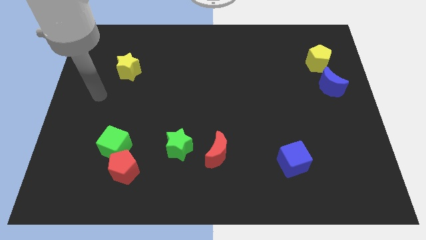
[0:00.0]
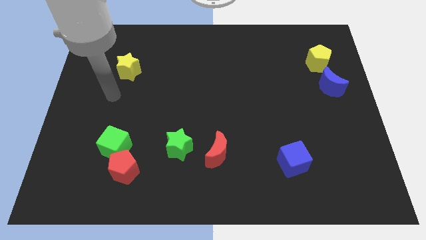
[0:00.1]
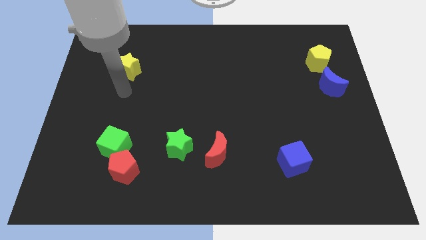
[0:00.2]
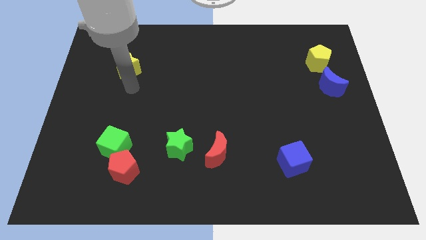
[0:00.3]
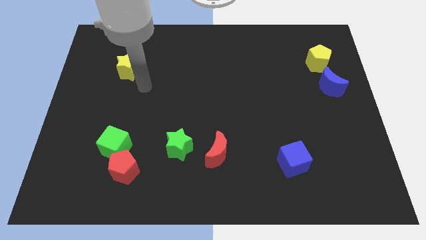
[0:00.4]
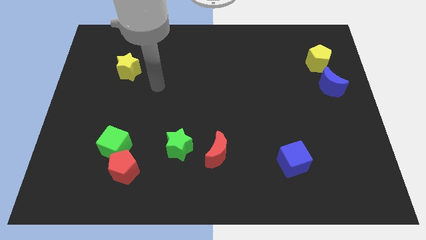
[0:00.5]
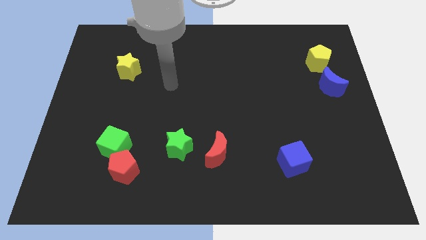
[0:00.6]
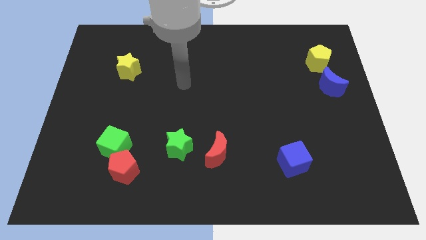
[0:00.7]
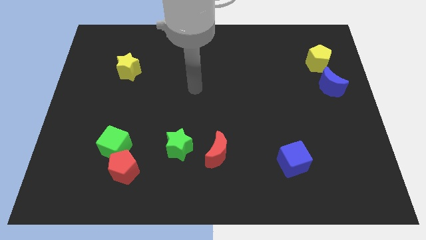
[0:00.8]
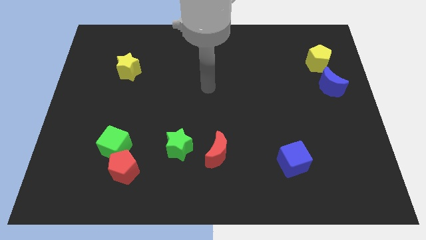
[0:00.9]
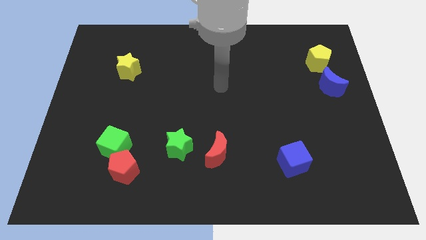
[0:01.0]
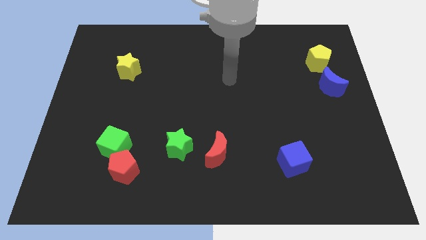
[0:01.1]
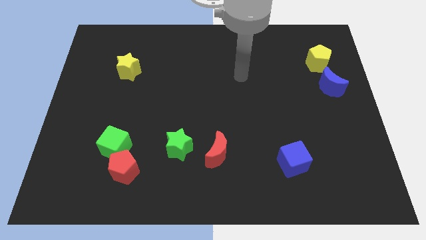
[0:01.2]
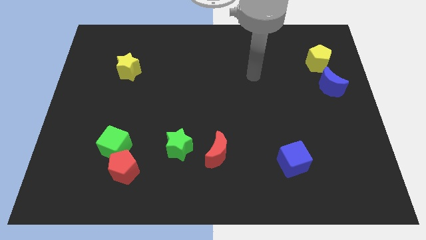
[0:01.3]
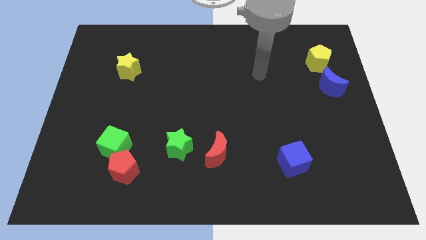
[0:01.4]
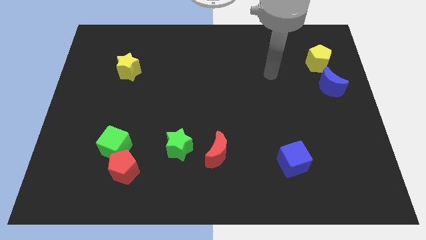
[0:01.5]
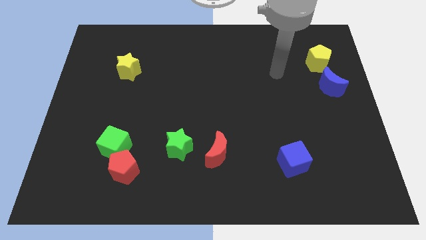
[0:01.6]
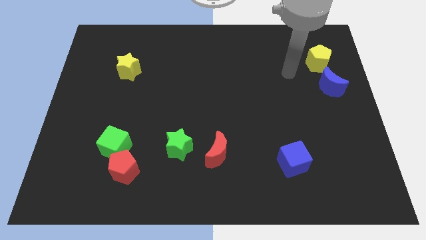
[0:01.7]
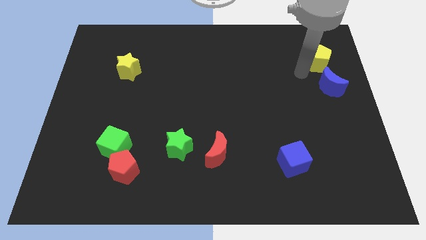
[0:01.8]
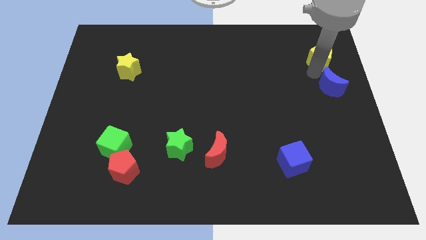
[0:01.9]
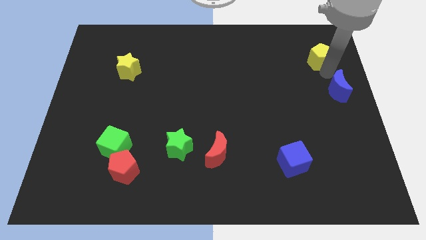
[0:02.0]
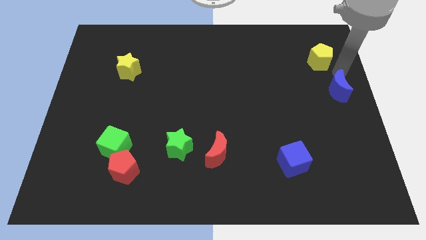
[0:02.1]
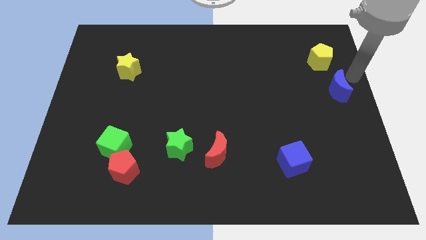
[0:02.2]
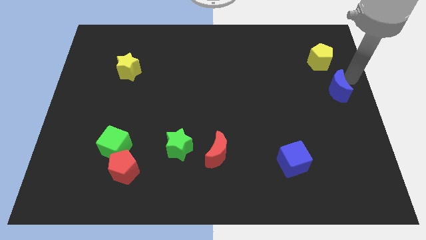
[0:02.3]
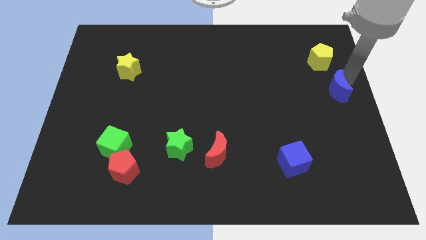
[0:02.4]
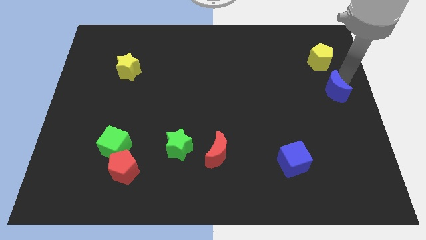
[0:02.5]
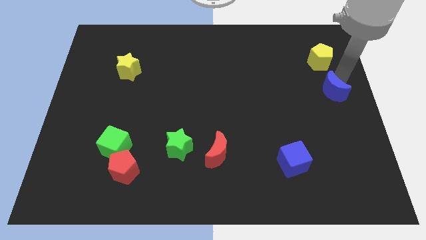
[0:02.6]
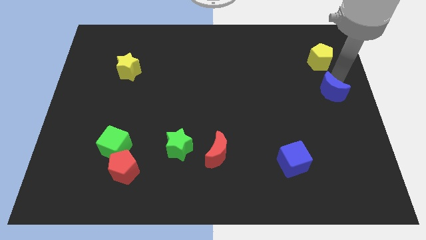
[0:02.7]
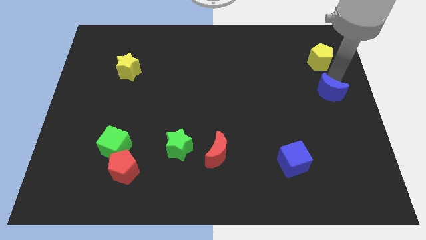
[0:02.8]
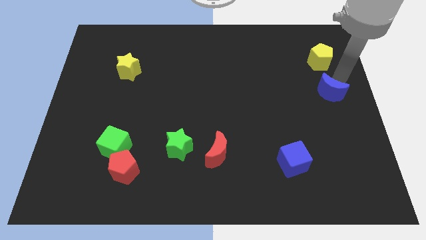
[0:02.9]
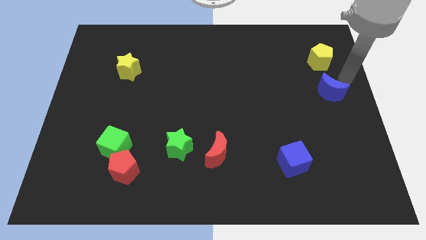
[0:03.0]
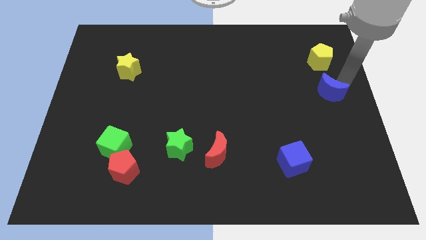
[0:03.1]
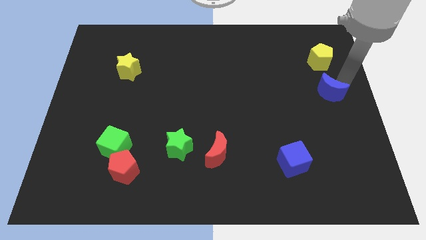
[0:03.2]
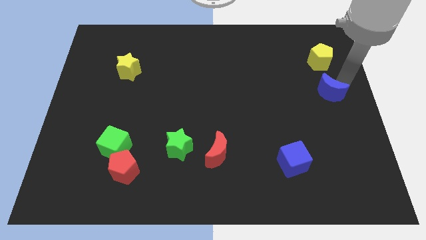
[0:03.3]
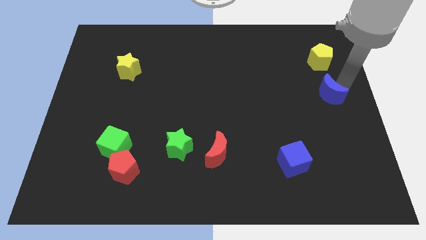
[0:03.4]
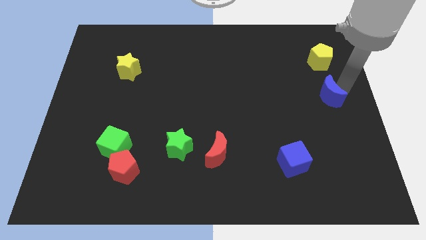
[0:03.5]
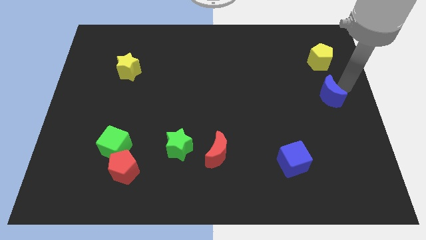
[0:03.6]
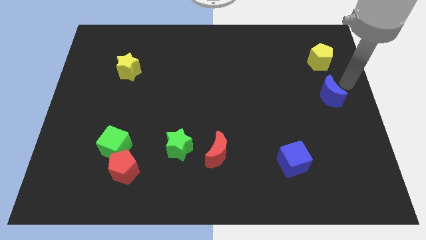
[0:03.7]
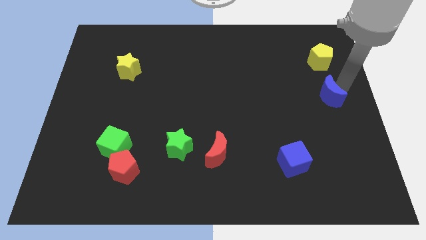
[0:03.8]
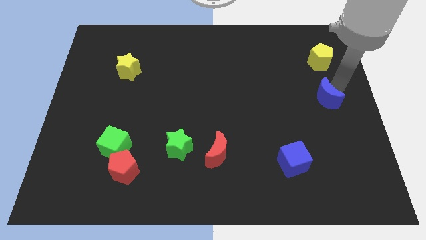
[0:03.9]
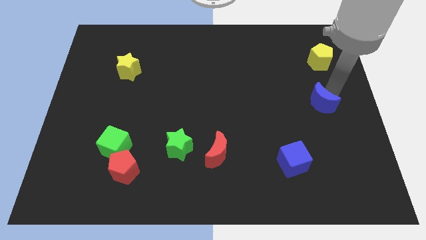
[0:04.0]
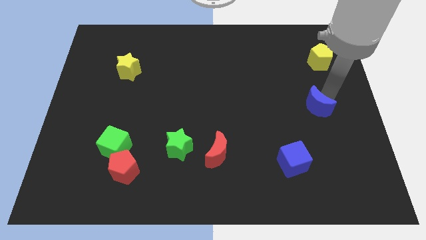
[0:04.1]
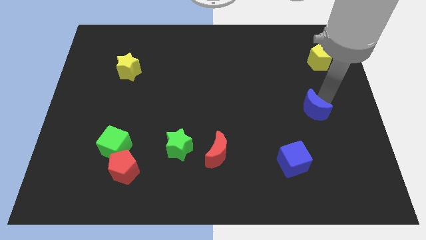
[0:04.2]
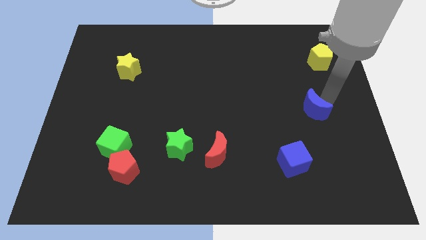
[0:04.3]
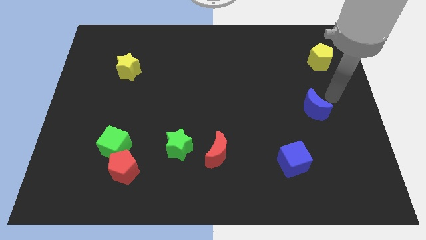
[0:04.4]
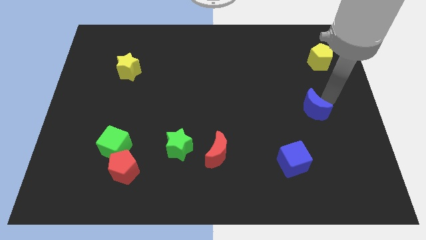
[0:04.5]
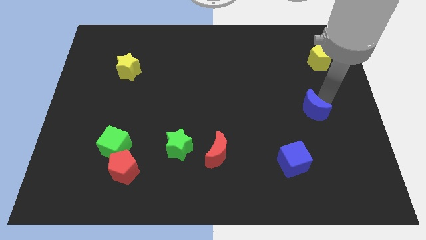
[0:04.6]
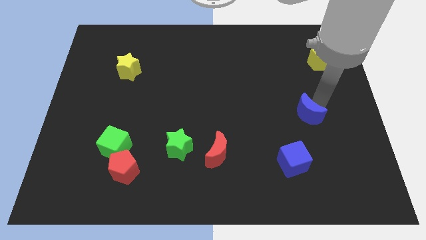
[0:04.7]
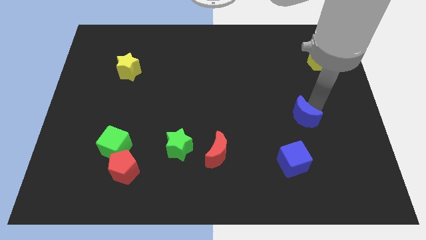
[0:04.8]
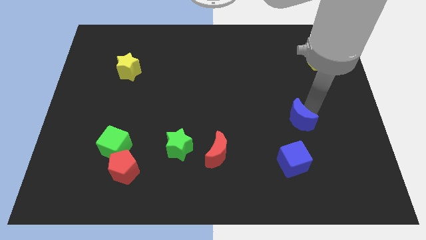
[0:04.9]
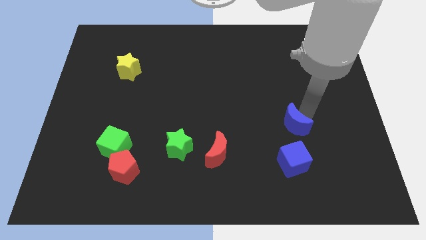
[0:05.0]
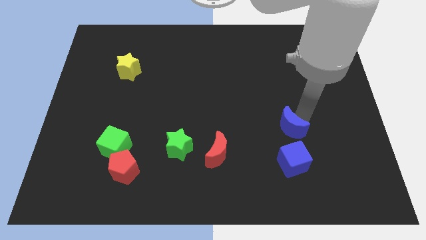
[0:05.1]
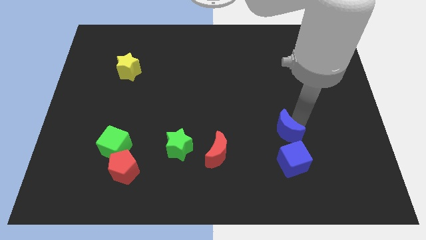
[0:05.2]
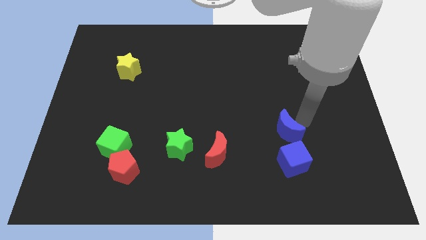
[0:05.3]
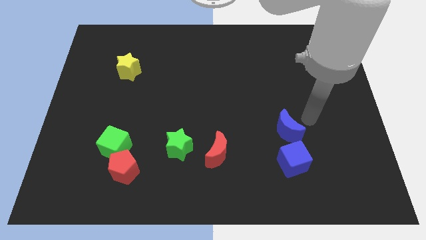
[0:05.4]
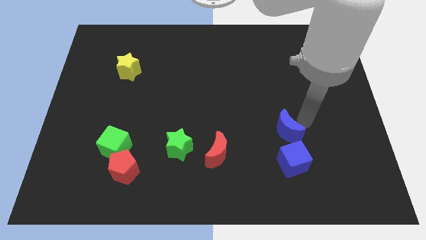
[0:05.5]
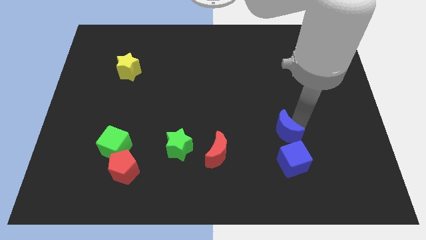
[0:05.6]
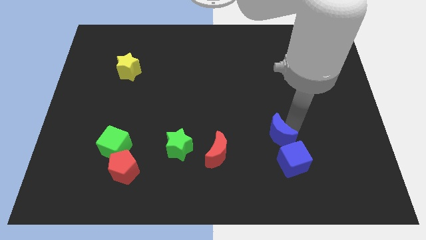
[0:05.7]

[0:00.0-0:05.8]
slide the blue moon to the top left side of the blue cube

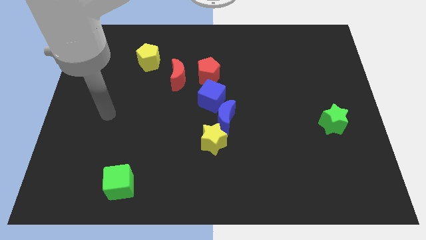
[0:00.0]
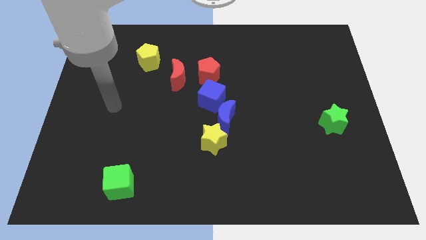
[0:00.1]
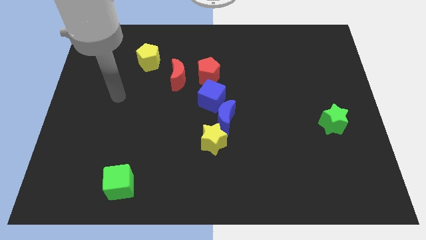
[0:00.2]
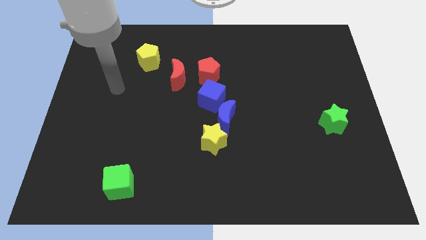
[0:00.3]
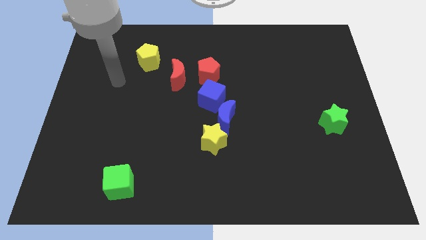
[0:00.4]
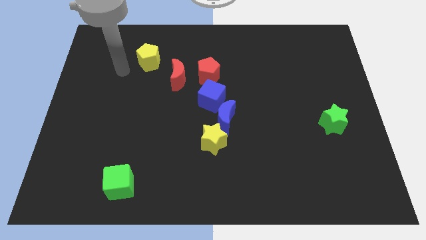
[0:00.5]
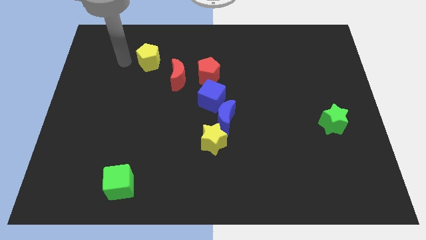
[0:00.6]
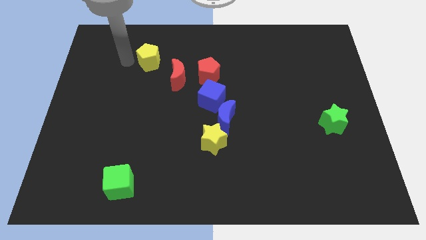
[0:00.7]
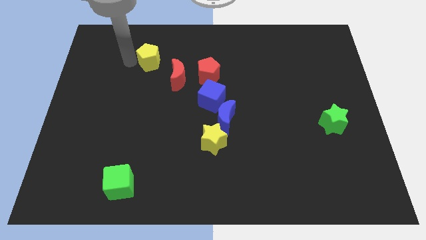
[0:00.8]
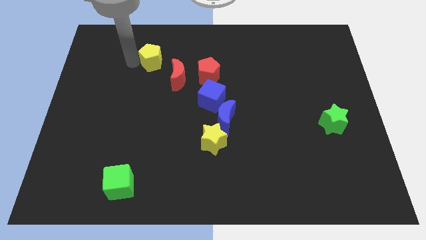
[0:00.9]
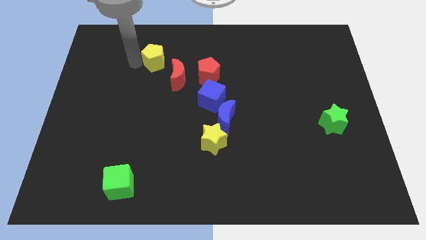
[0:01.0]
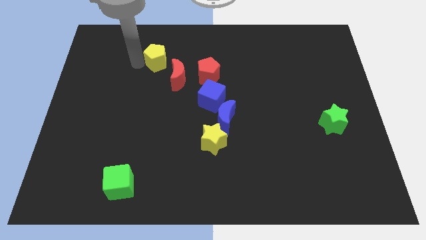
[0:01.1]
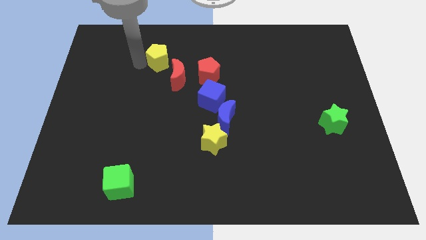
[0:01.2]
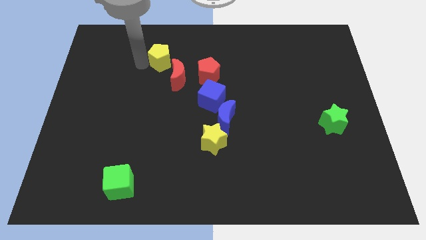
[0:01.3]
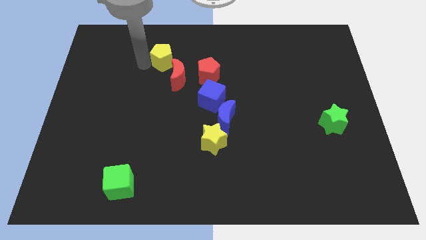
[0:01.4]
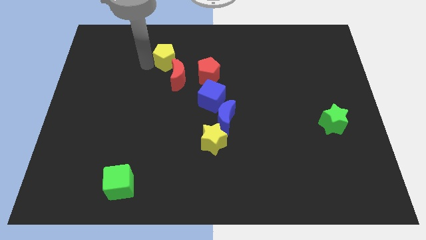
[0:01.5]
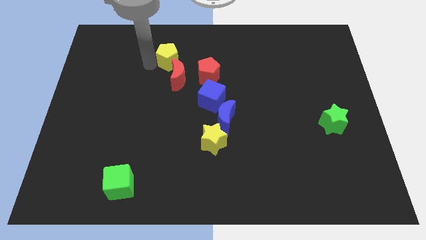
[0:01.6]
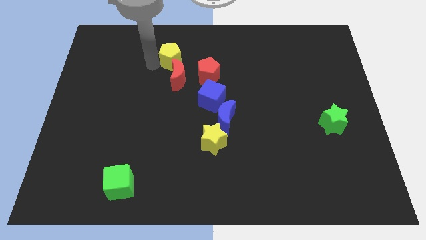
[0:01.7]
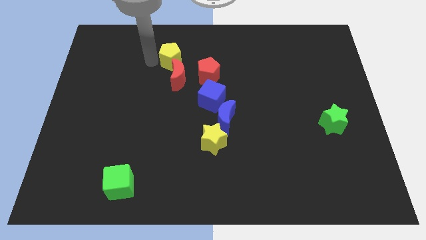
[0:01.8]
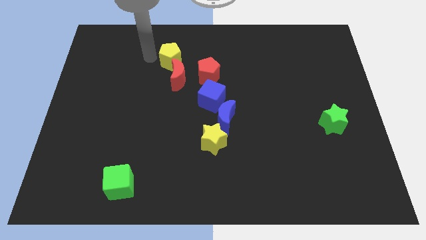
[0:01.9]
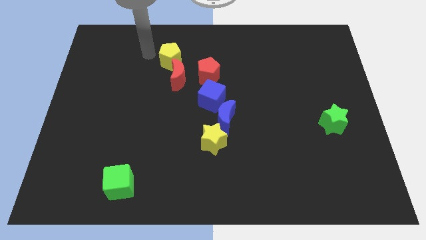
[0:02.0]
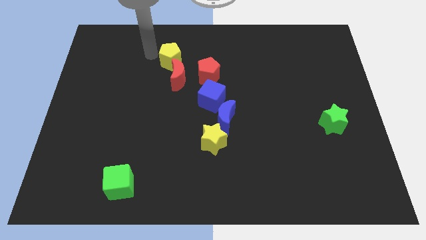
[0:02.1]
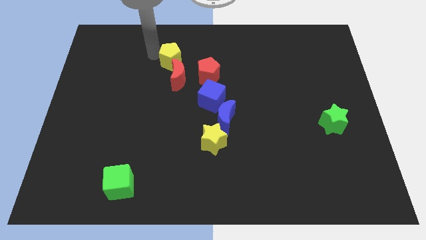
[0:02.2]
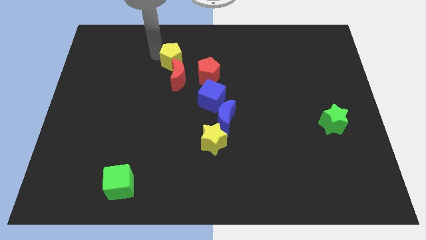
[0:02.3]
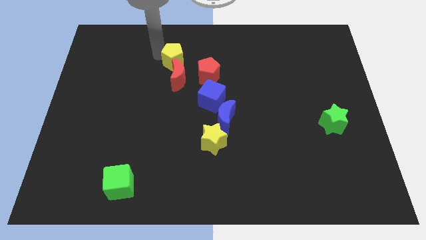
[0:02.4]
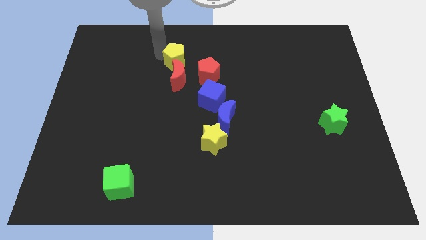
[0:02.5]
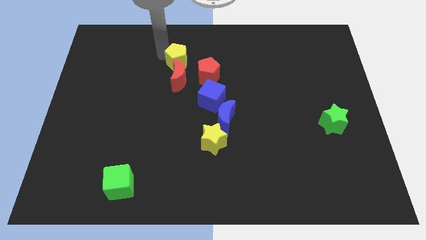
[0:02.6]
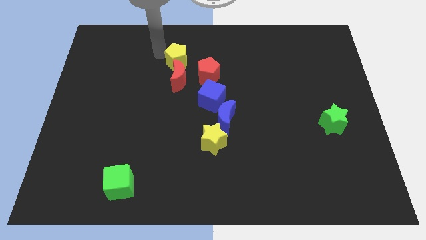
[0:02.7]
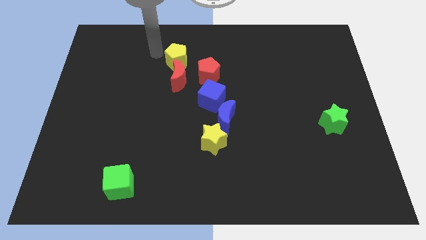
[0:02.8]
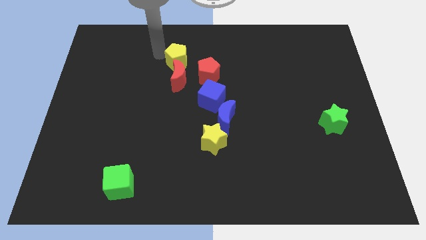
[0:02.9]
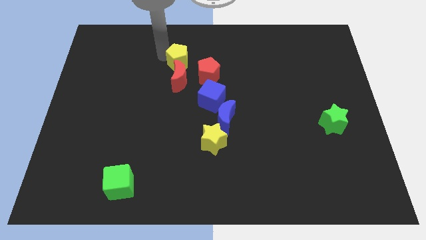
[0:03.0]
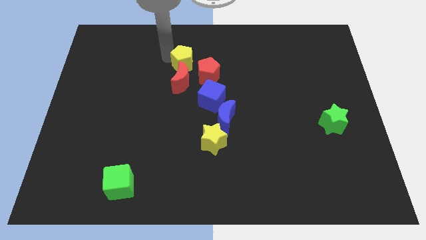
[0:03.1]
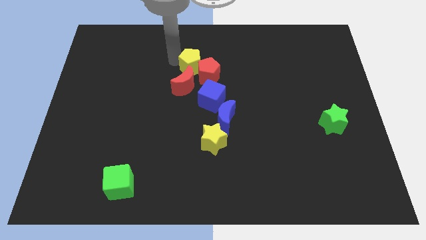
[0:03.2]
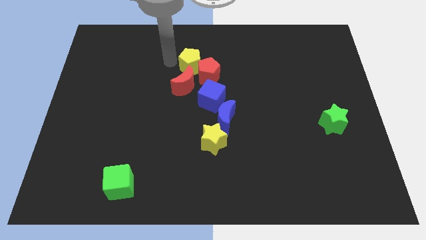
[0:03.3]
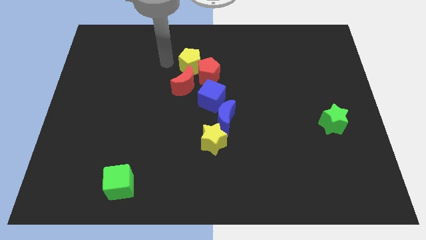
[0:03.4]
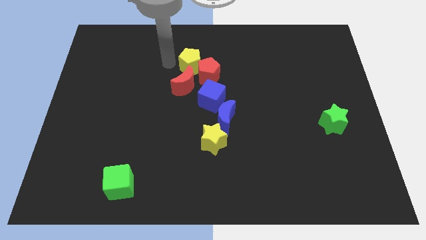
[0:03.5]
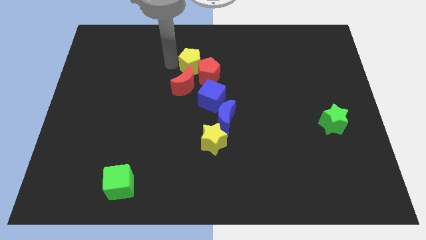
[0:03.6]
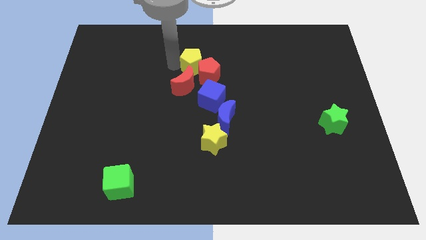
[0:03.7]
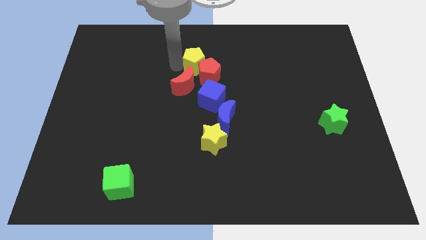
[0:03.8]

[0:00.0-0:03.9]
move the yellow pentagon above the blue cube
